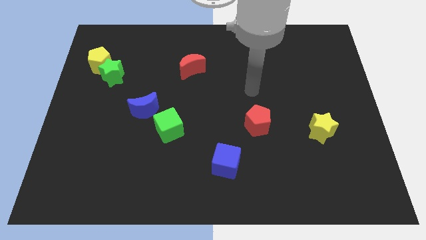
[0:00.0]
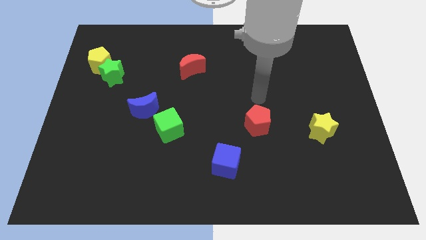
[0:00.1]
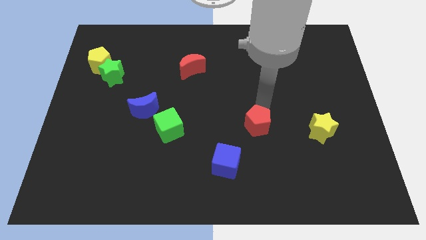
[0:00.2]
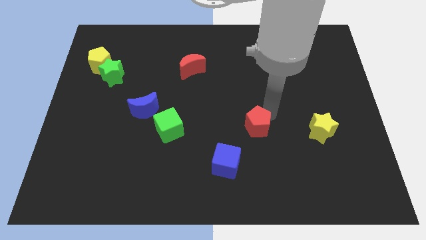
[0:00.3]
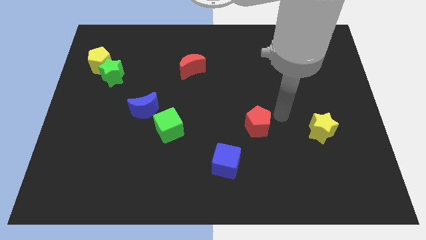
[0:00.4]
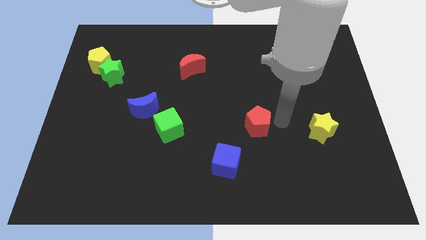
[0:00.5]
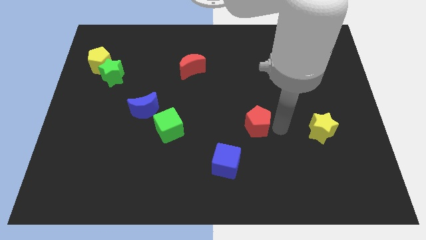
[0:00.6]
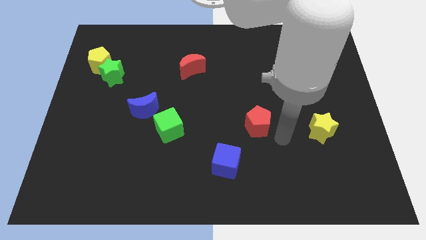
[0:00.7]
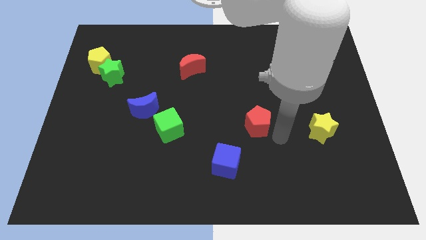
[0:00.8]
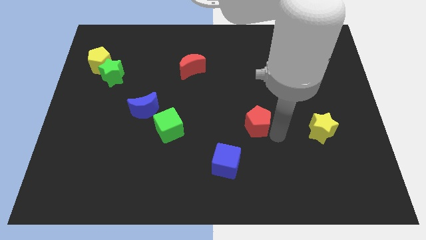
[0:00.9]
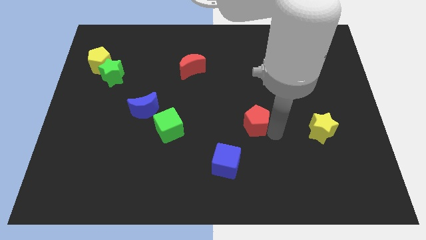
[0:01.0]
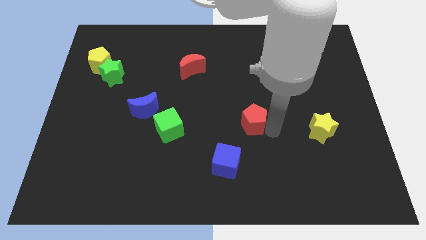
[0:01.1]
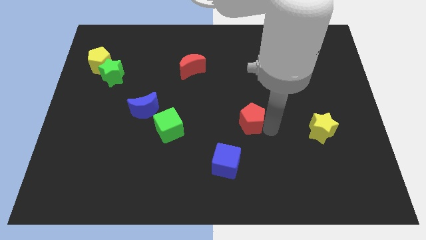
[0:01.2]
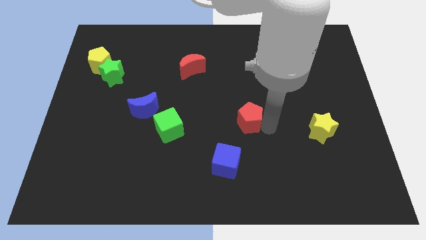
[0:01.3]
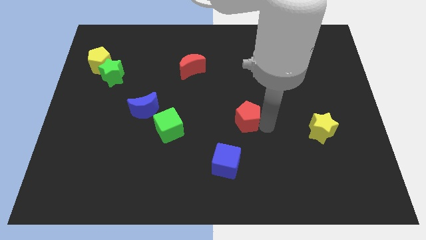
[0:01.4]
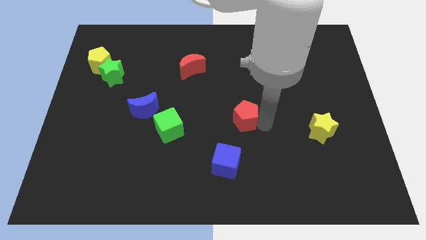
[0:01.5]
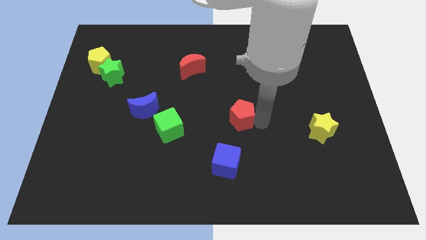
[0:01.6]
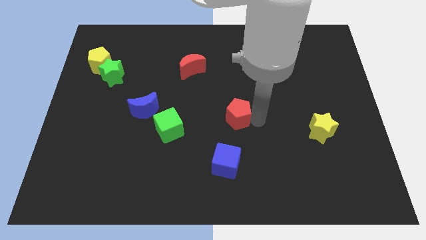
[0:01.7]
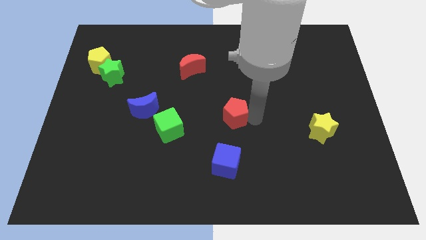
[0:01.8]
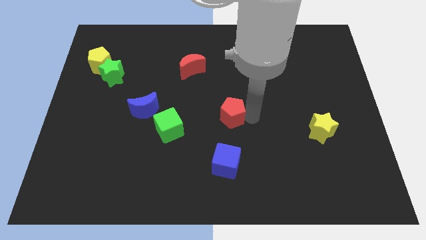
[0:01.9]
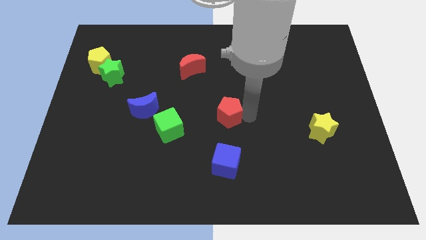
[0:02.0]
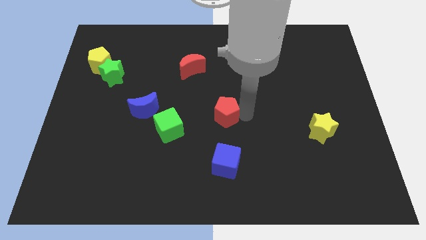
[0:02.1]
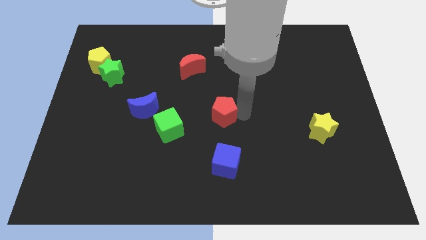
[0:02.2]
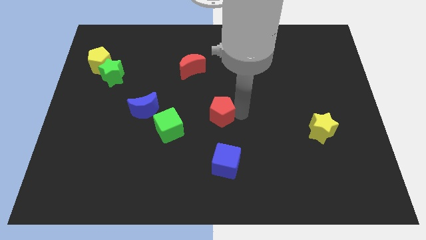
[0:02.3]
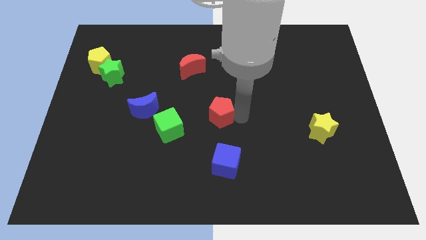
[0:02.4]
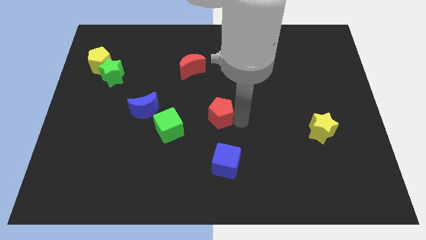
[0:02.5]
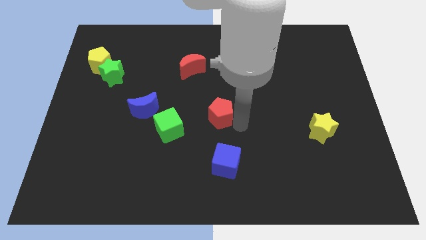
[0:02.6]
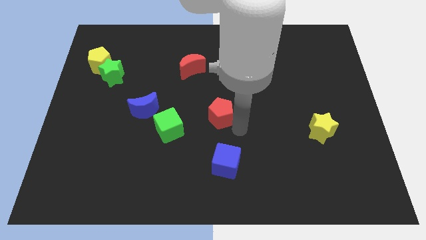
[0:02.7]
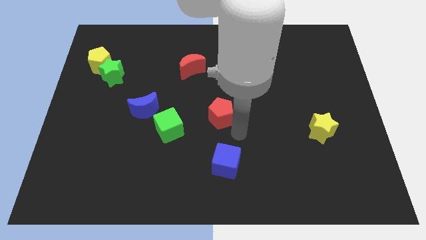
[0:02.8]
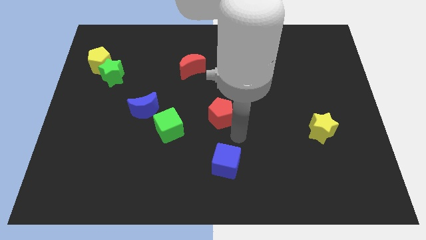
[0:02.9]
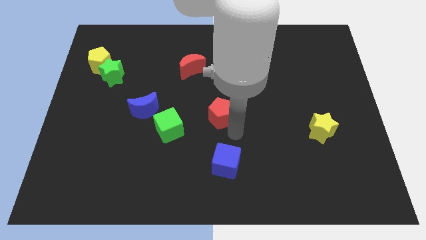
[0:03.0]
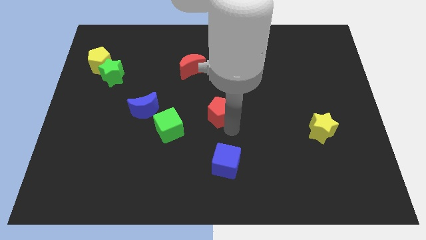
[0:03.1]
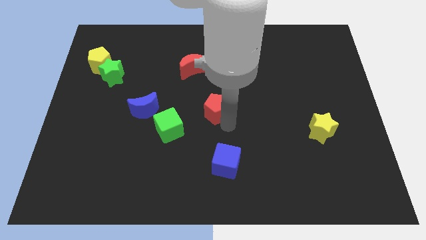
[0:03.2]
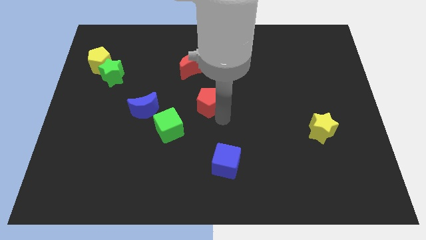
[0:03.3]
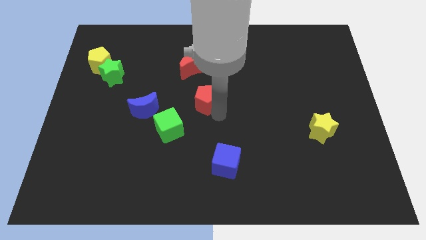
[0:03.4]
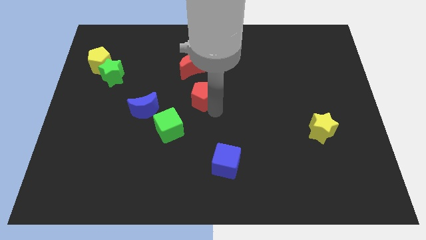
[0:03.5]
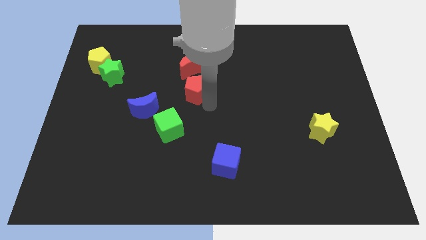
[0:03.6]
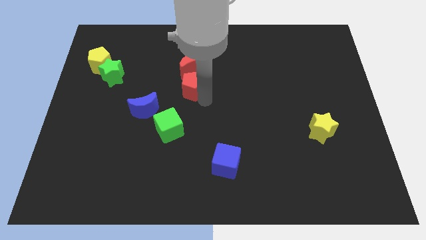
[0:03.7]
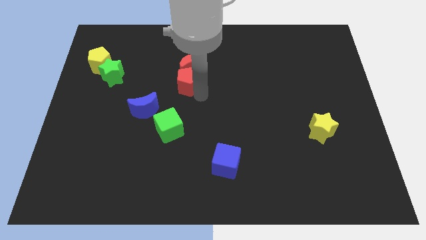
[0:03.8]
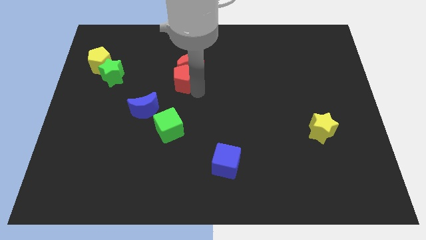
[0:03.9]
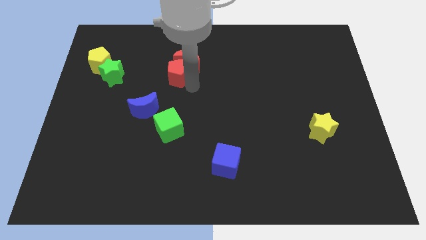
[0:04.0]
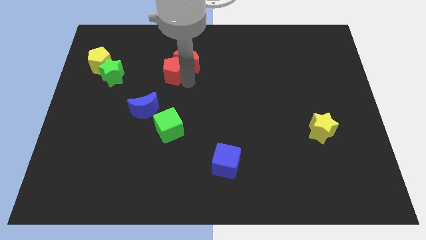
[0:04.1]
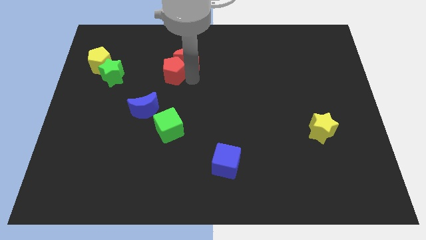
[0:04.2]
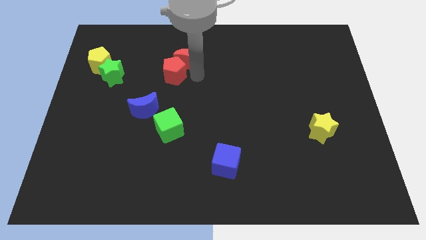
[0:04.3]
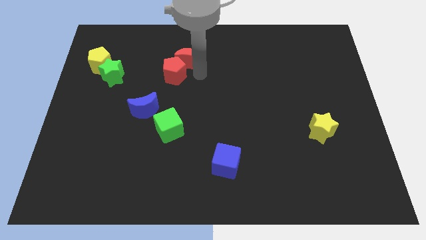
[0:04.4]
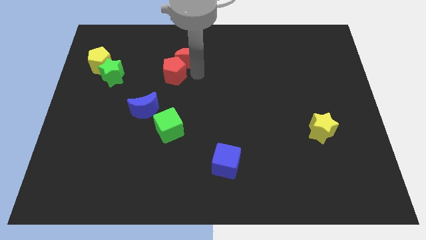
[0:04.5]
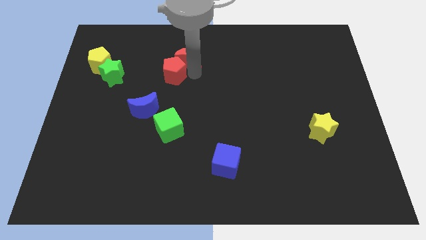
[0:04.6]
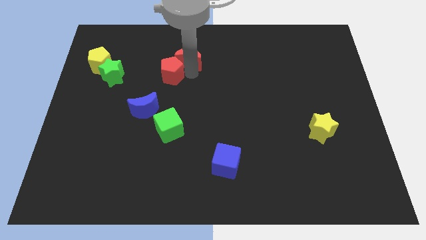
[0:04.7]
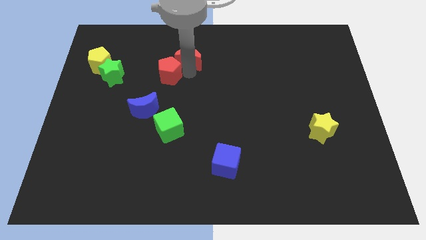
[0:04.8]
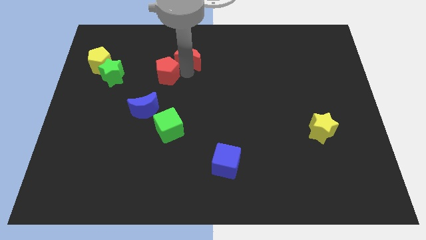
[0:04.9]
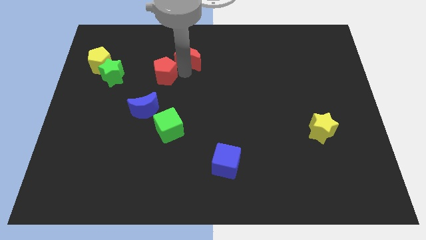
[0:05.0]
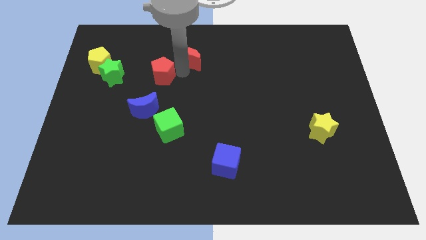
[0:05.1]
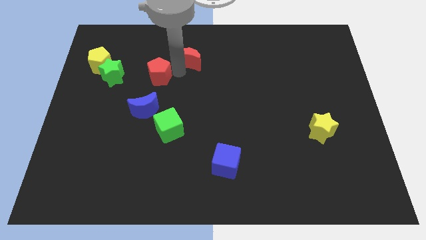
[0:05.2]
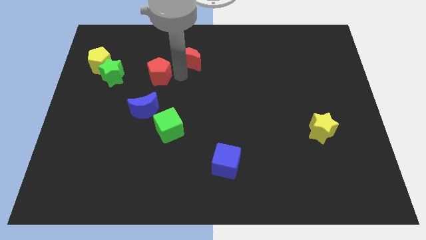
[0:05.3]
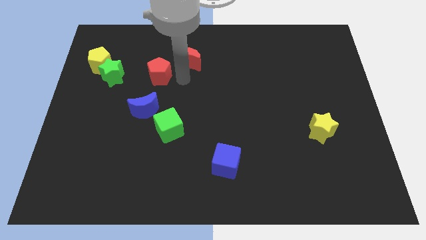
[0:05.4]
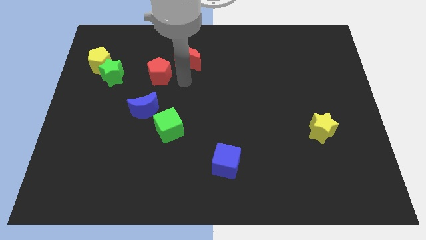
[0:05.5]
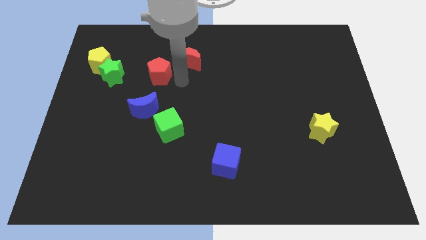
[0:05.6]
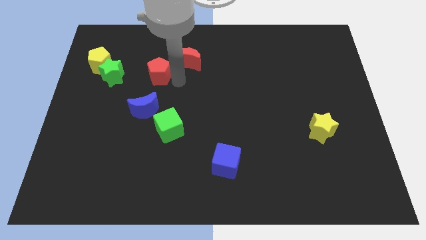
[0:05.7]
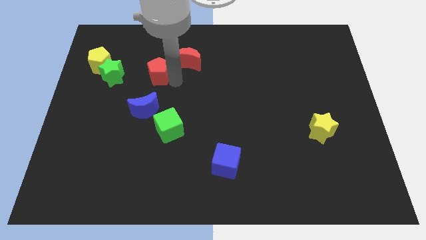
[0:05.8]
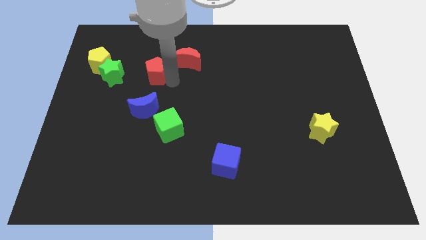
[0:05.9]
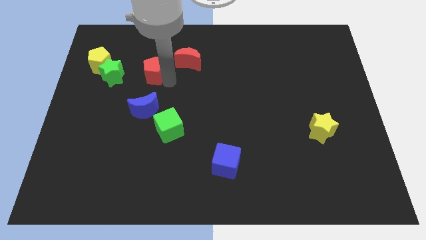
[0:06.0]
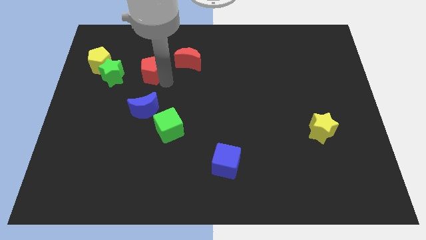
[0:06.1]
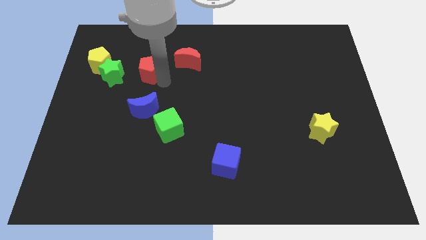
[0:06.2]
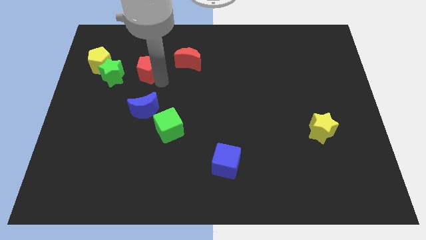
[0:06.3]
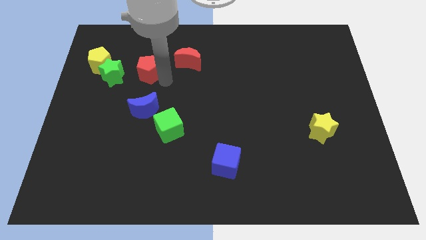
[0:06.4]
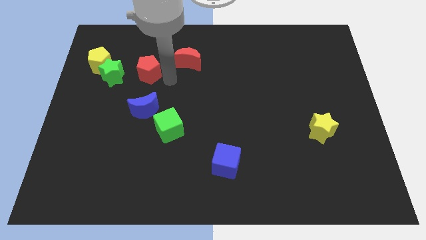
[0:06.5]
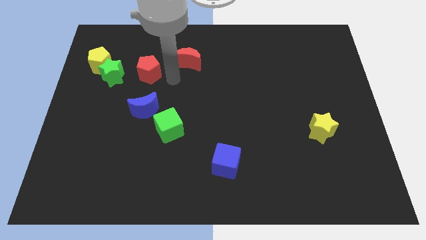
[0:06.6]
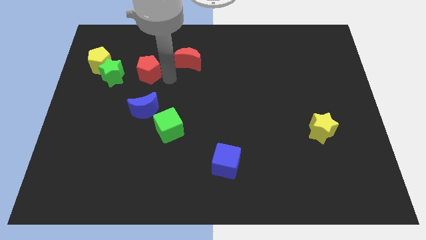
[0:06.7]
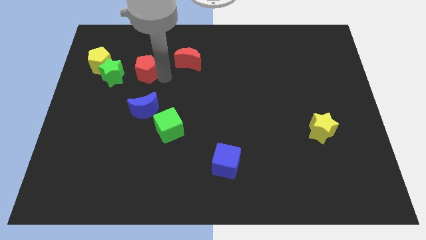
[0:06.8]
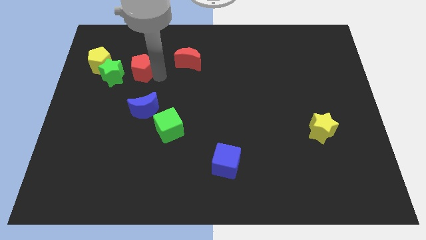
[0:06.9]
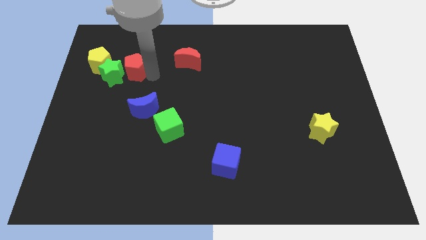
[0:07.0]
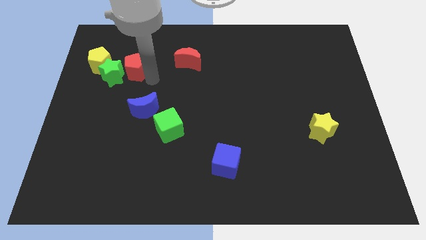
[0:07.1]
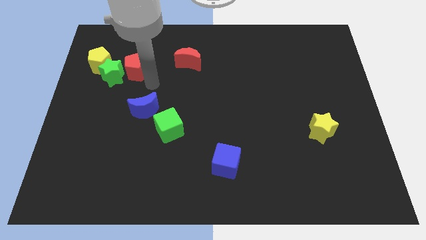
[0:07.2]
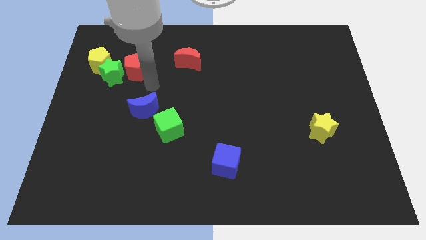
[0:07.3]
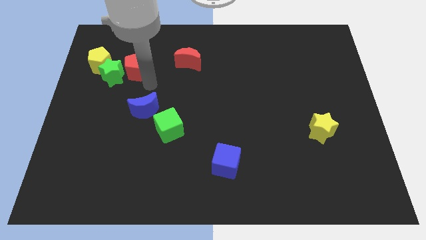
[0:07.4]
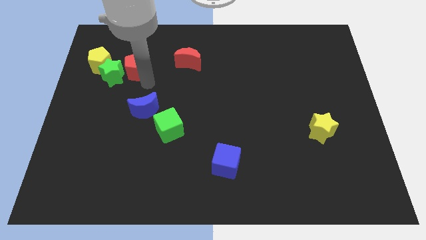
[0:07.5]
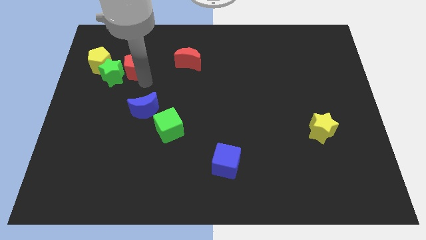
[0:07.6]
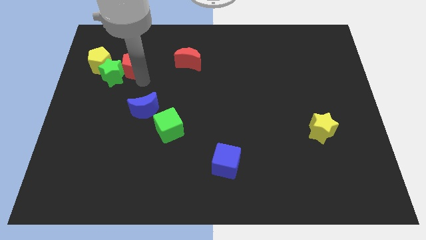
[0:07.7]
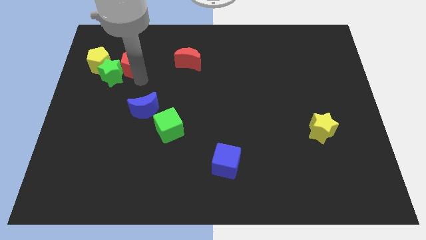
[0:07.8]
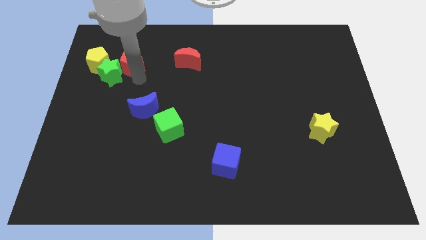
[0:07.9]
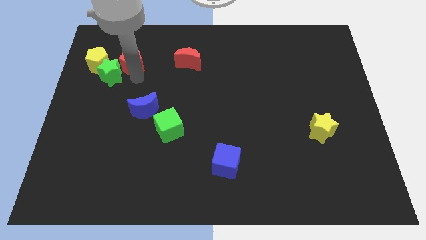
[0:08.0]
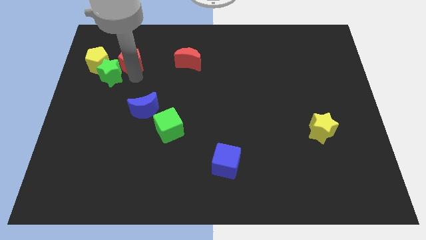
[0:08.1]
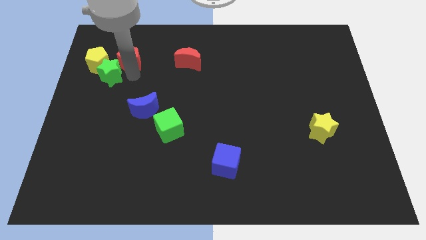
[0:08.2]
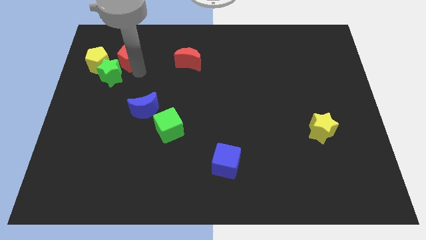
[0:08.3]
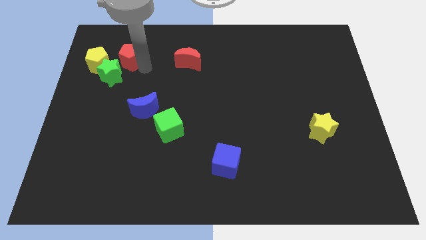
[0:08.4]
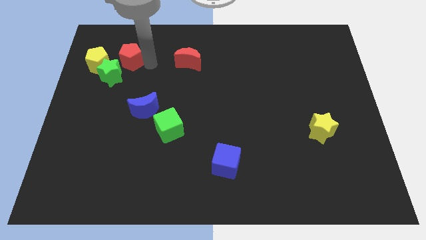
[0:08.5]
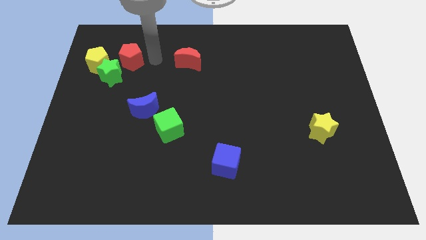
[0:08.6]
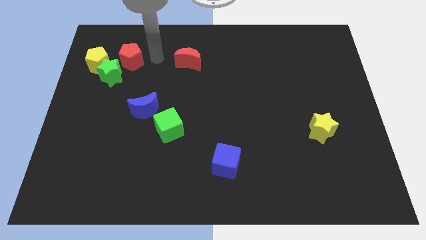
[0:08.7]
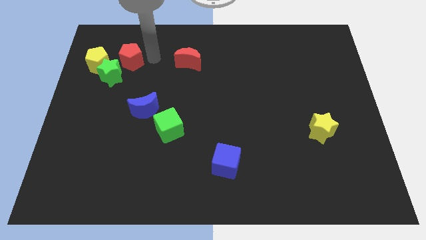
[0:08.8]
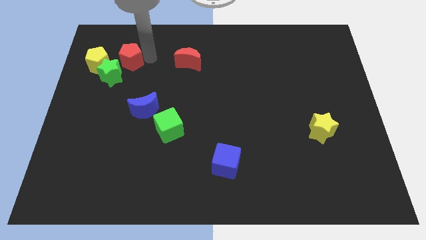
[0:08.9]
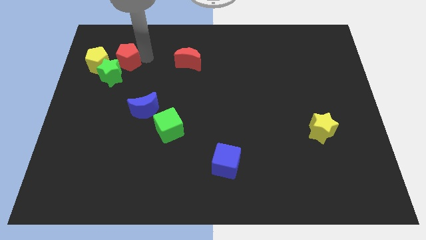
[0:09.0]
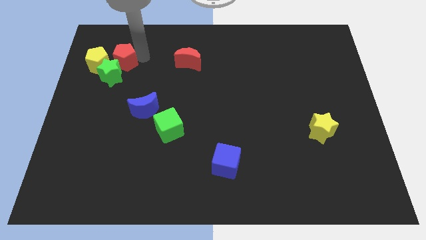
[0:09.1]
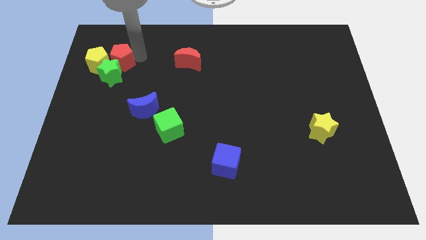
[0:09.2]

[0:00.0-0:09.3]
push the red pentagon to the yellow pentagon
